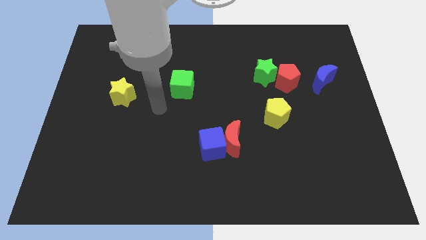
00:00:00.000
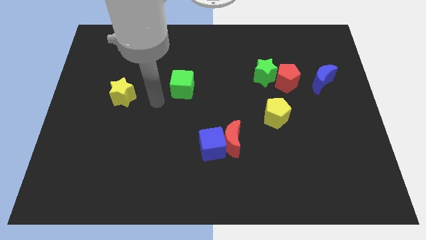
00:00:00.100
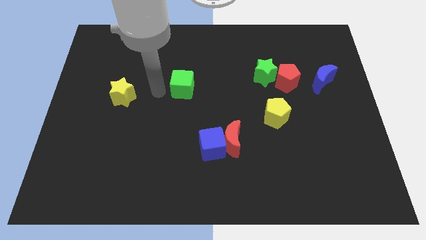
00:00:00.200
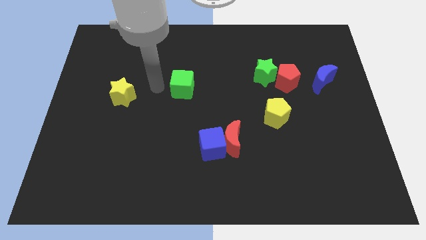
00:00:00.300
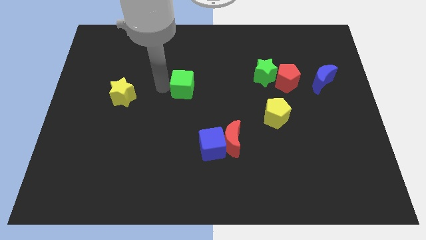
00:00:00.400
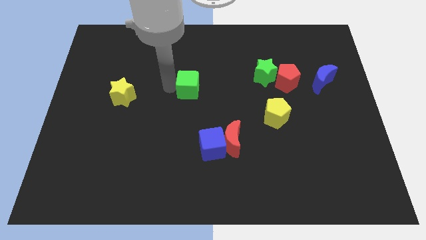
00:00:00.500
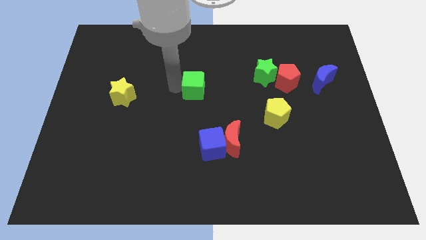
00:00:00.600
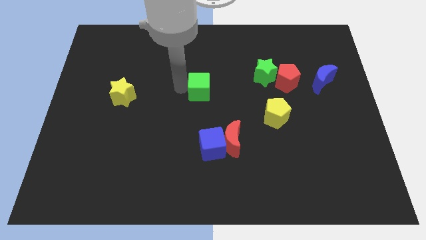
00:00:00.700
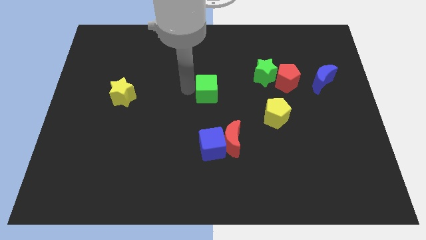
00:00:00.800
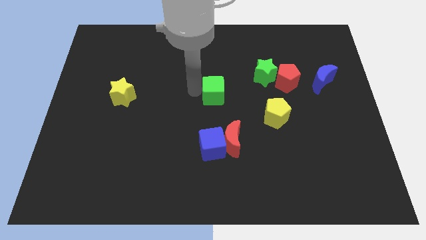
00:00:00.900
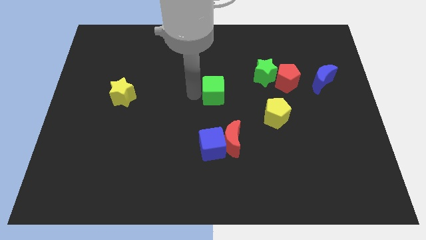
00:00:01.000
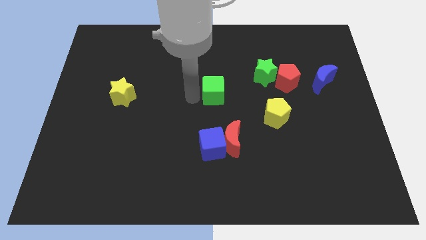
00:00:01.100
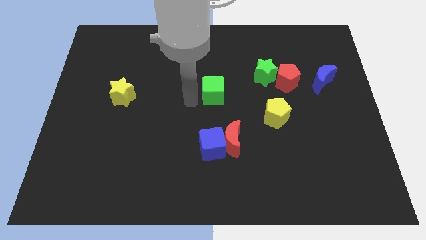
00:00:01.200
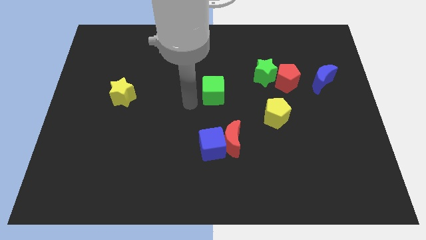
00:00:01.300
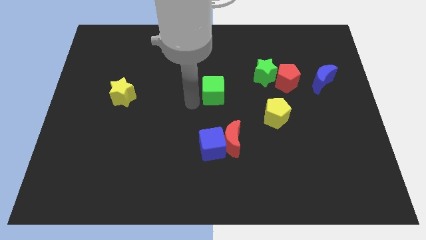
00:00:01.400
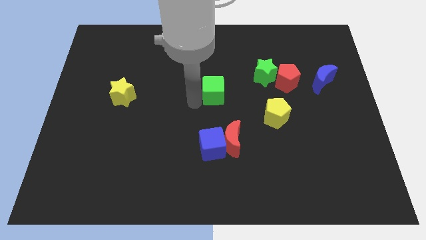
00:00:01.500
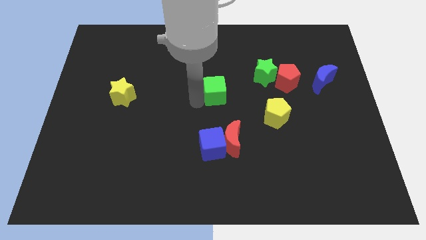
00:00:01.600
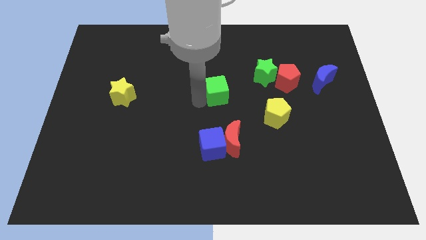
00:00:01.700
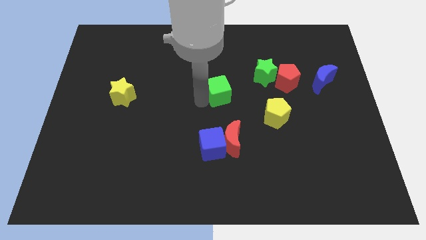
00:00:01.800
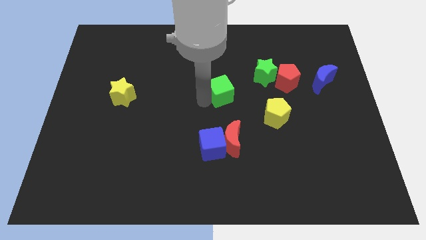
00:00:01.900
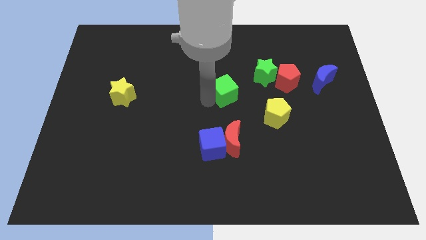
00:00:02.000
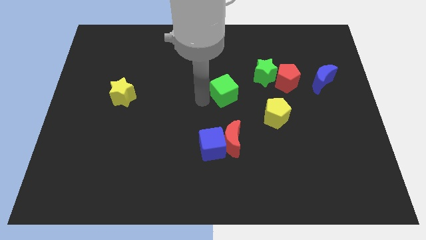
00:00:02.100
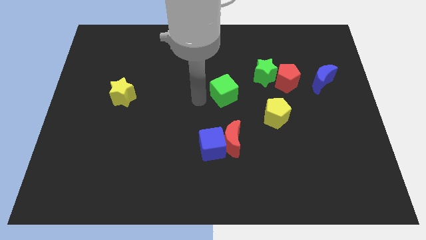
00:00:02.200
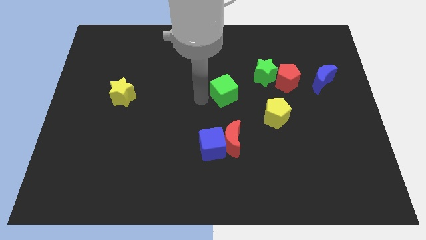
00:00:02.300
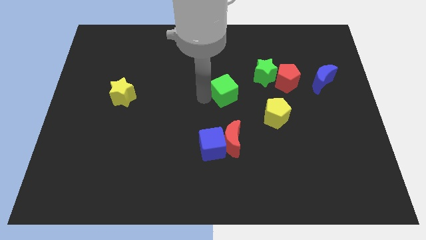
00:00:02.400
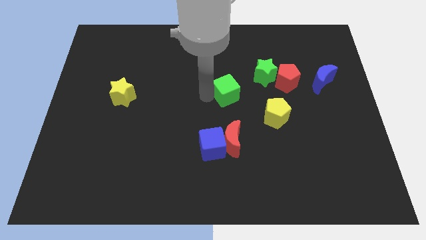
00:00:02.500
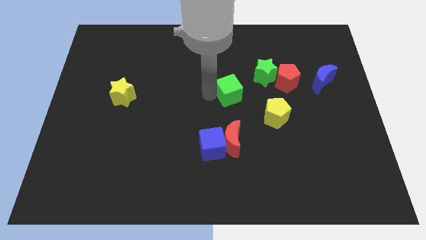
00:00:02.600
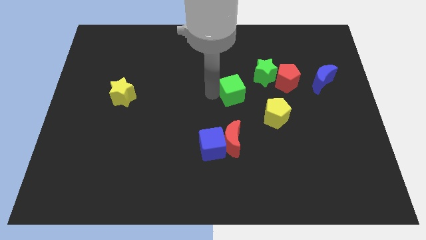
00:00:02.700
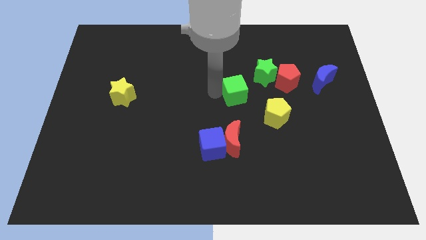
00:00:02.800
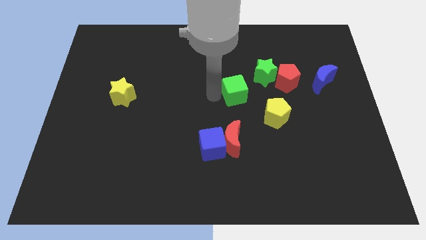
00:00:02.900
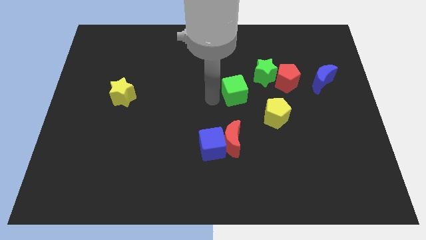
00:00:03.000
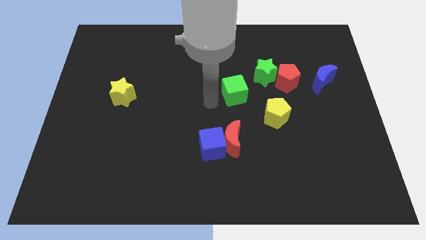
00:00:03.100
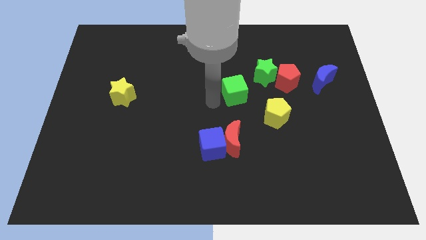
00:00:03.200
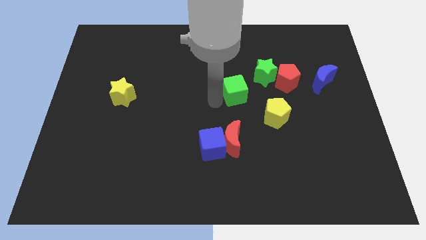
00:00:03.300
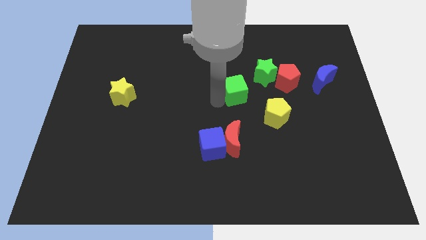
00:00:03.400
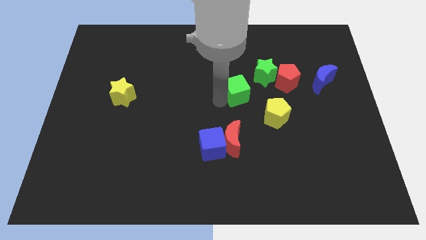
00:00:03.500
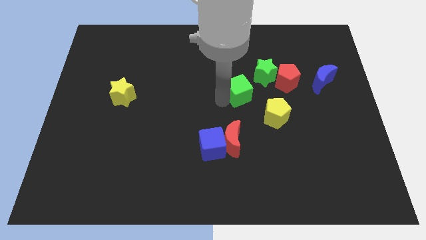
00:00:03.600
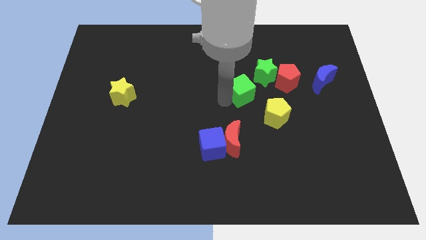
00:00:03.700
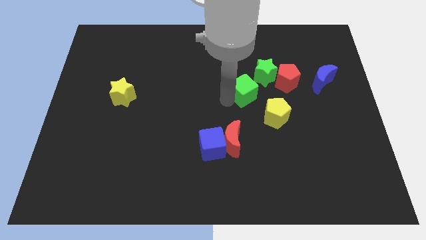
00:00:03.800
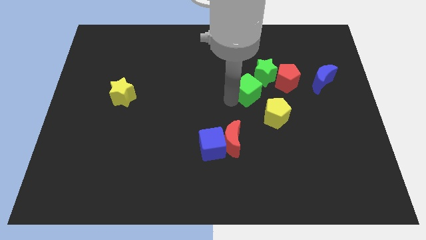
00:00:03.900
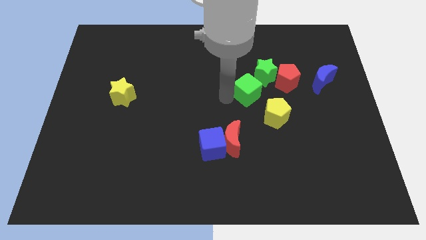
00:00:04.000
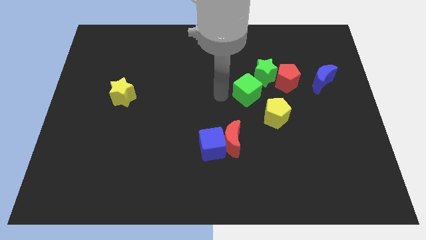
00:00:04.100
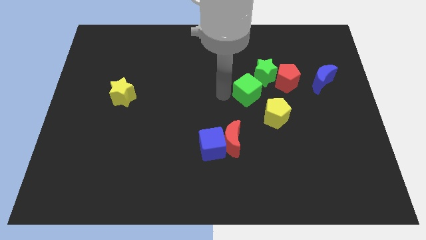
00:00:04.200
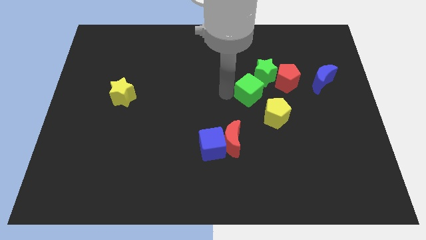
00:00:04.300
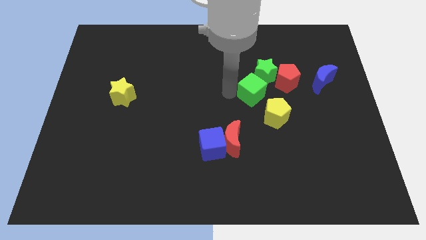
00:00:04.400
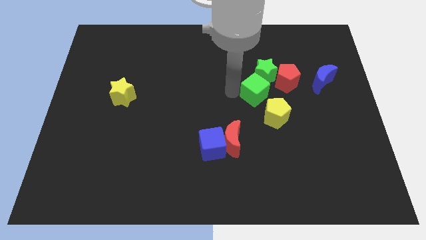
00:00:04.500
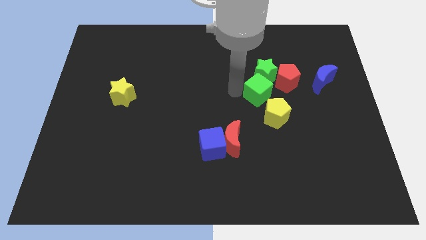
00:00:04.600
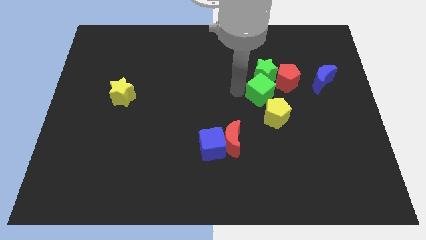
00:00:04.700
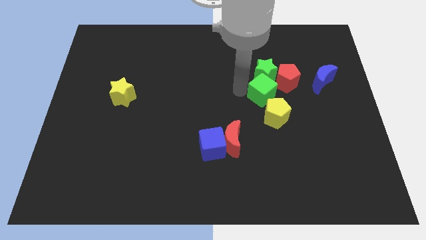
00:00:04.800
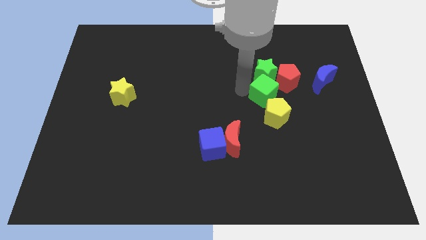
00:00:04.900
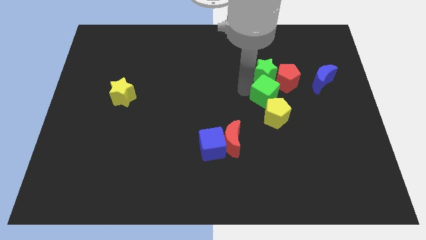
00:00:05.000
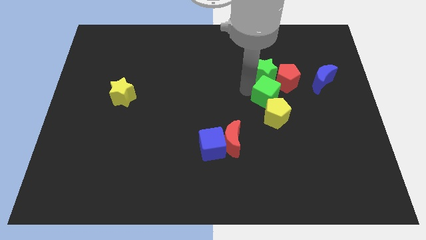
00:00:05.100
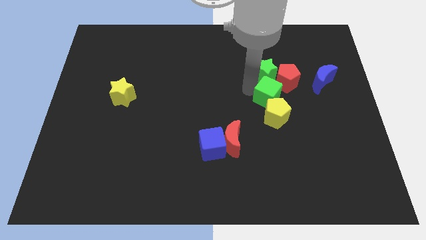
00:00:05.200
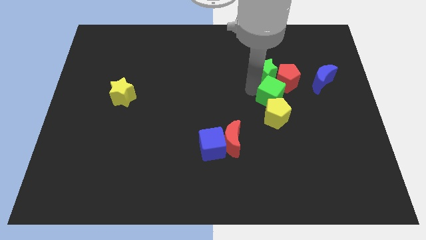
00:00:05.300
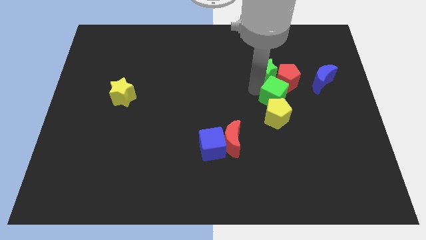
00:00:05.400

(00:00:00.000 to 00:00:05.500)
slide the green cube to the red pentagon
